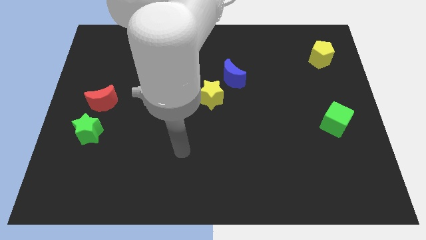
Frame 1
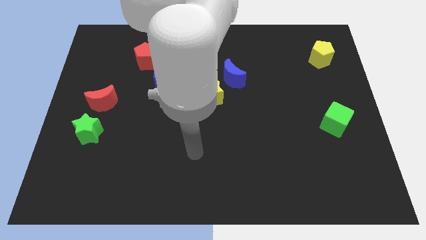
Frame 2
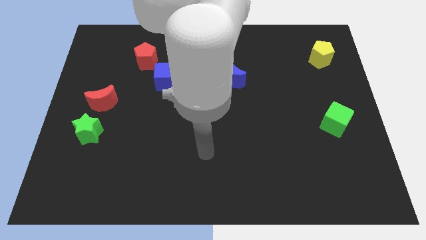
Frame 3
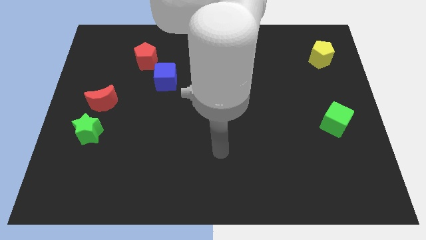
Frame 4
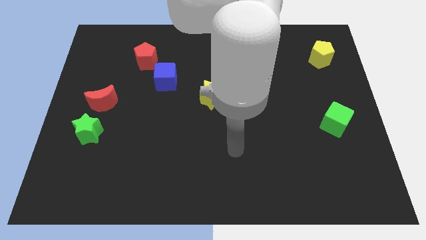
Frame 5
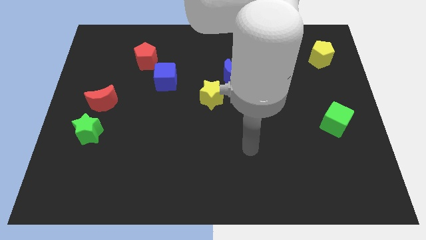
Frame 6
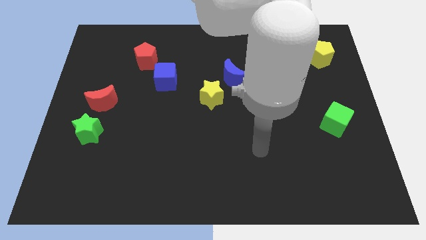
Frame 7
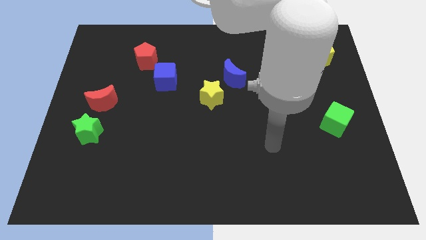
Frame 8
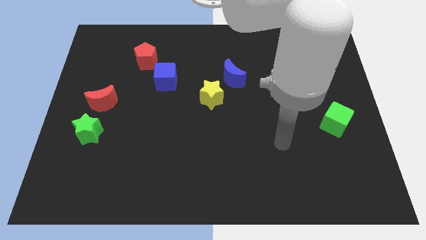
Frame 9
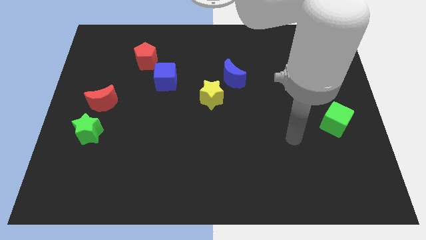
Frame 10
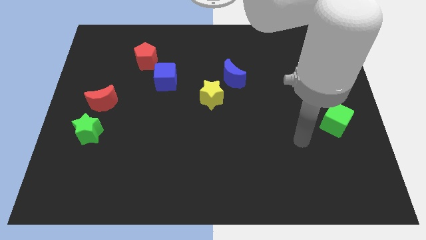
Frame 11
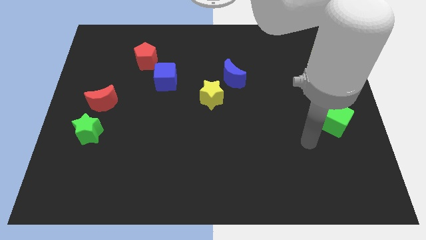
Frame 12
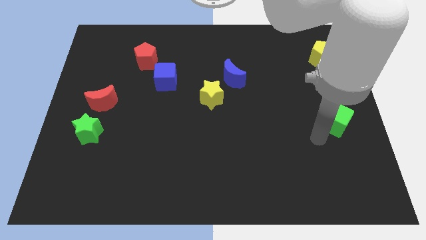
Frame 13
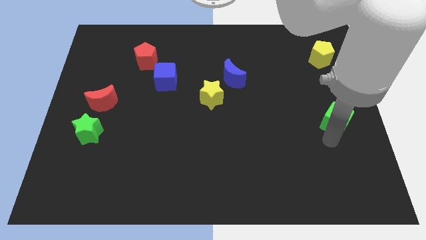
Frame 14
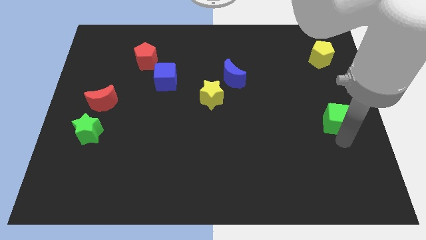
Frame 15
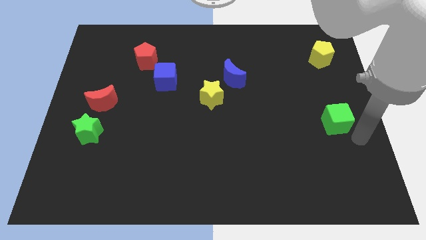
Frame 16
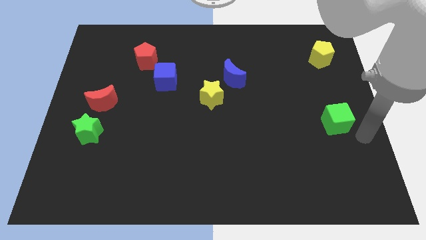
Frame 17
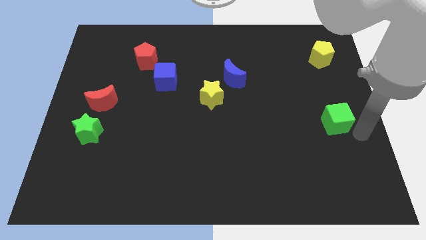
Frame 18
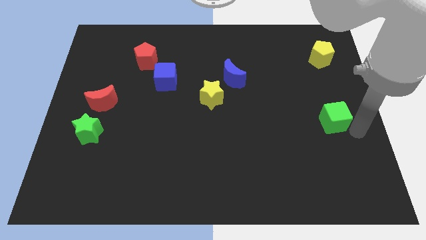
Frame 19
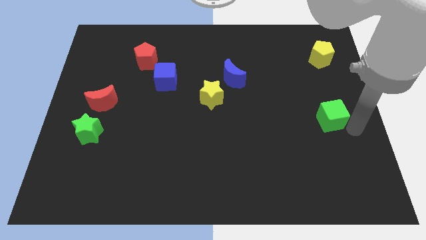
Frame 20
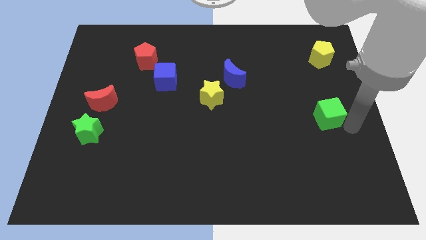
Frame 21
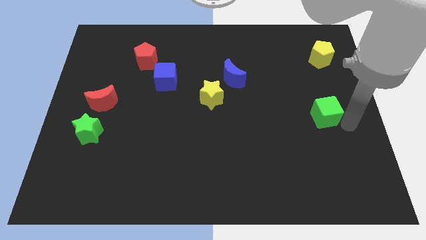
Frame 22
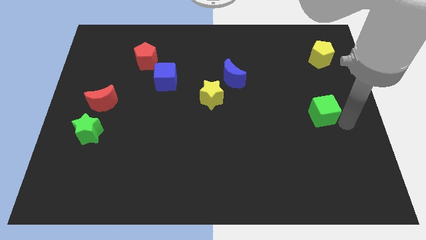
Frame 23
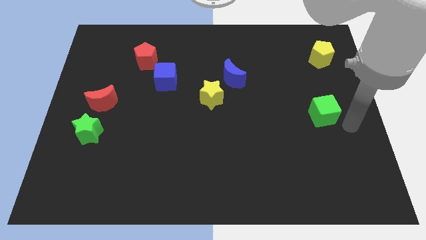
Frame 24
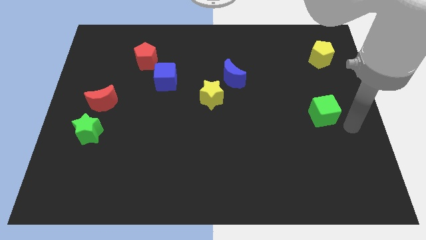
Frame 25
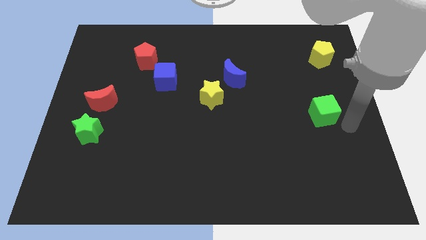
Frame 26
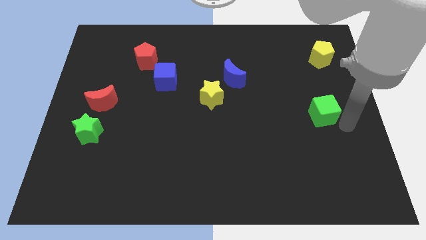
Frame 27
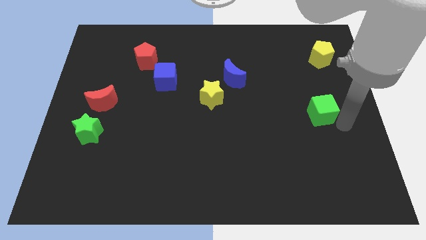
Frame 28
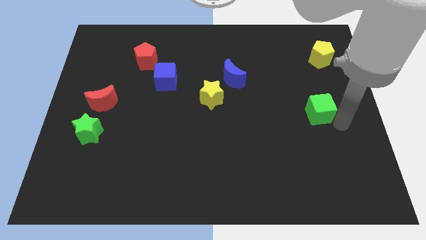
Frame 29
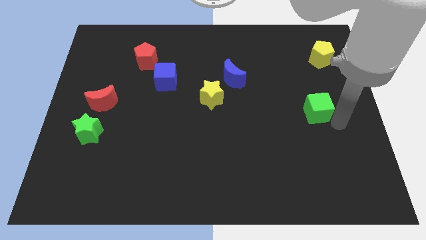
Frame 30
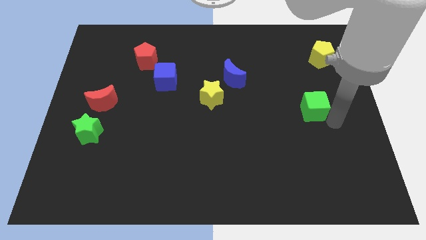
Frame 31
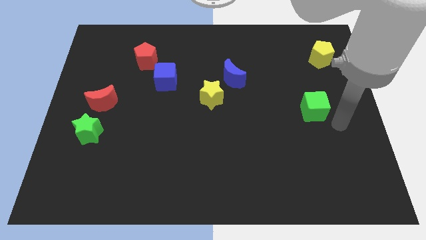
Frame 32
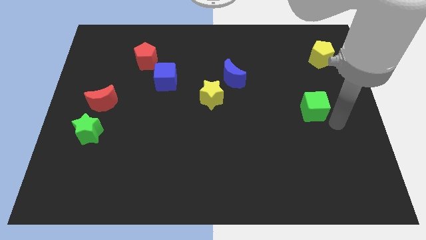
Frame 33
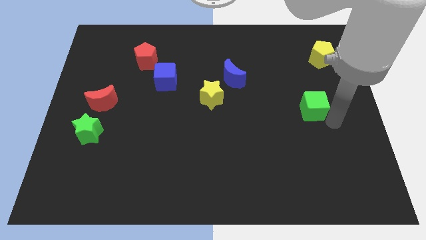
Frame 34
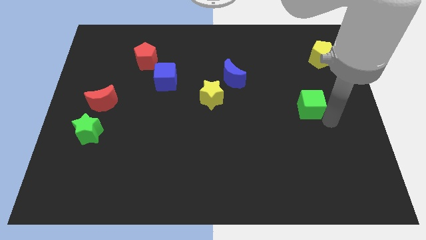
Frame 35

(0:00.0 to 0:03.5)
slightly slide the green cube up and to the left diagonally

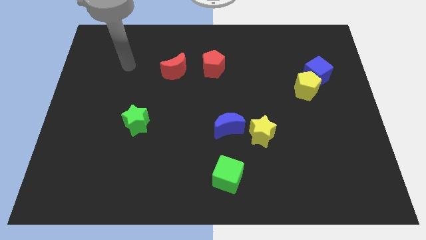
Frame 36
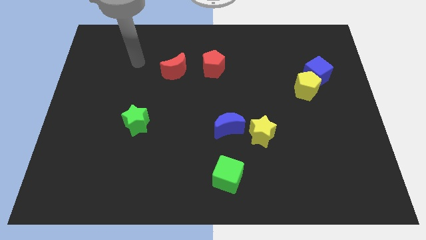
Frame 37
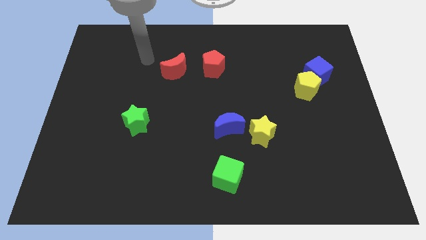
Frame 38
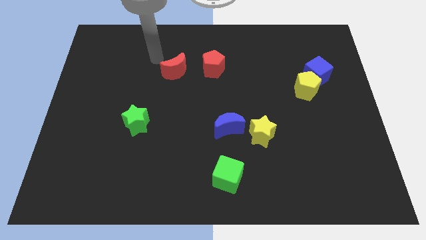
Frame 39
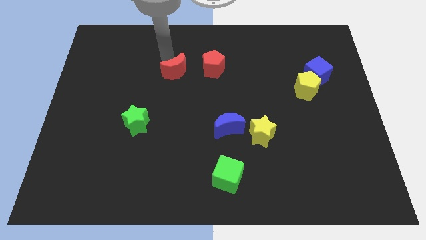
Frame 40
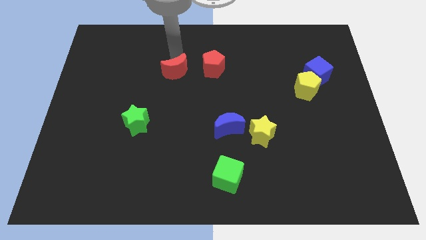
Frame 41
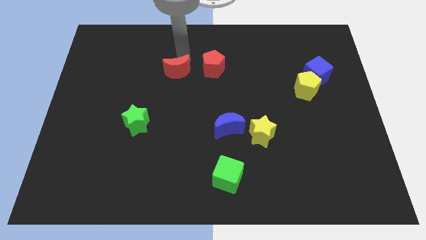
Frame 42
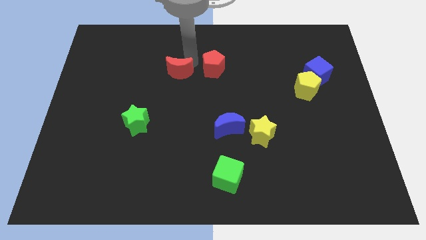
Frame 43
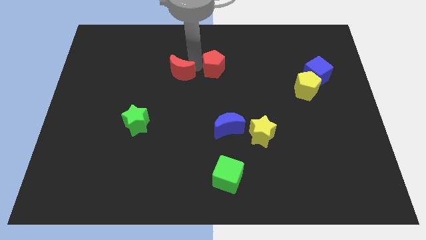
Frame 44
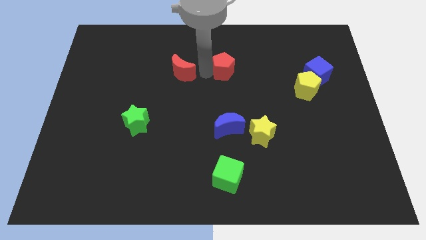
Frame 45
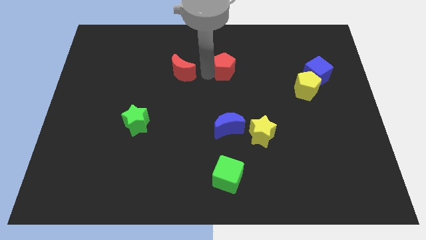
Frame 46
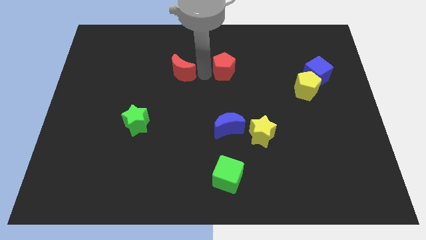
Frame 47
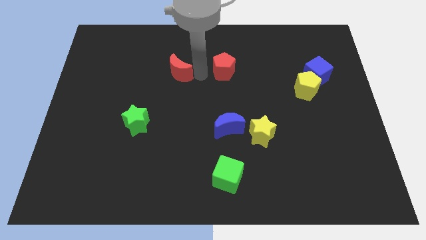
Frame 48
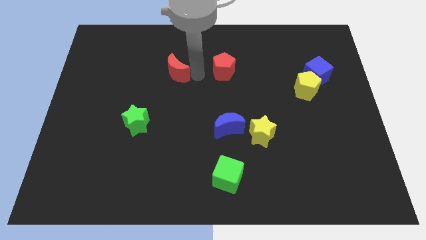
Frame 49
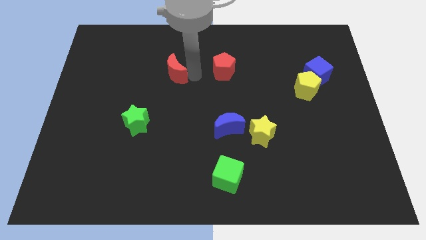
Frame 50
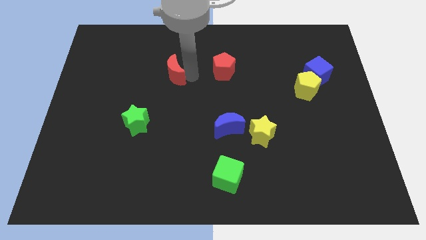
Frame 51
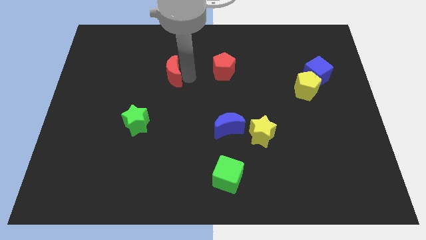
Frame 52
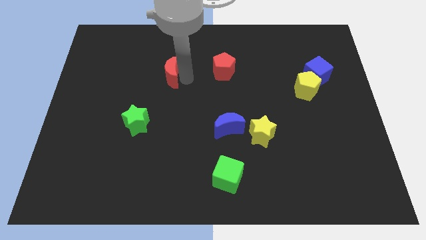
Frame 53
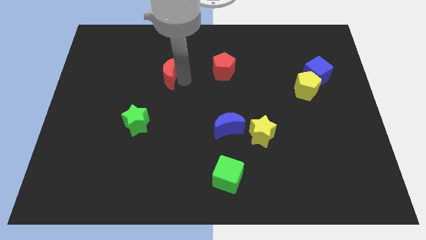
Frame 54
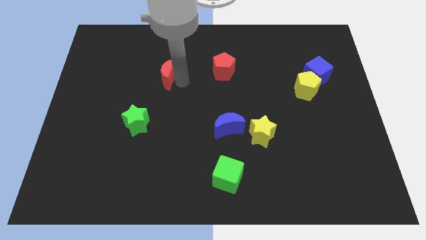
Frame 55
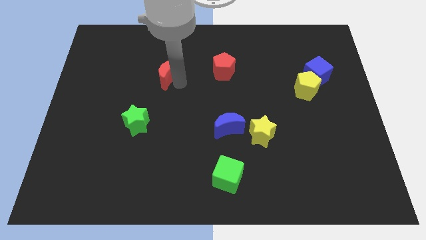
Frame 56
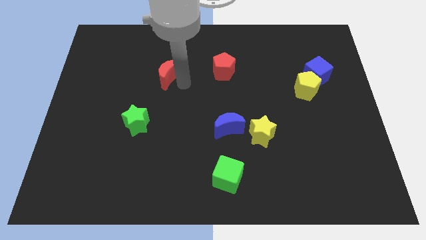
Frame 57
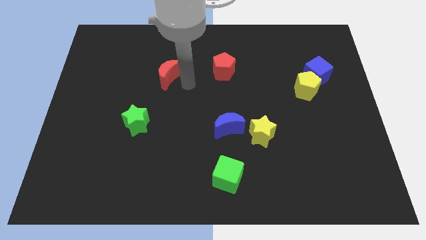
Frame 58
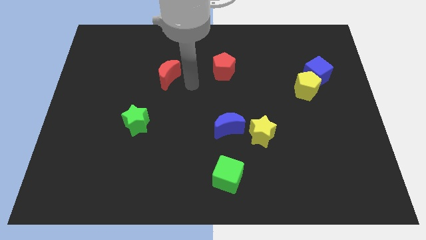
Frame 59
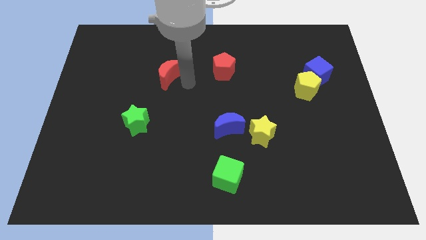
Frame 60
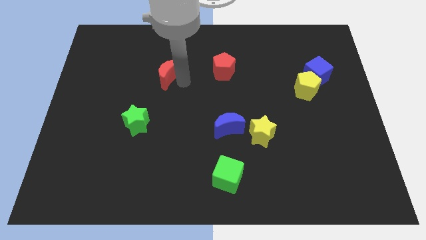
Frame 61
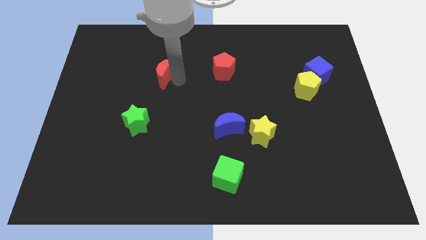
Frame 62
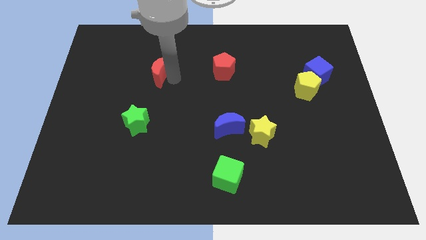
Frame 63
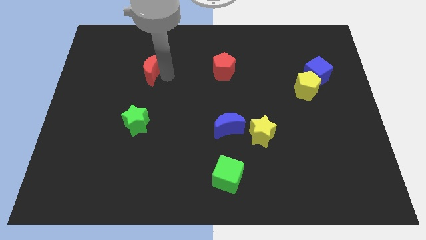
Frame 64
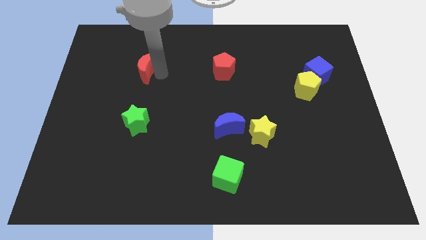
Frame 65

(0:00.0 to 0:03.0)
slightly slide the red moon to the left

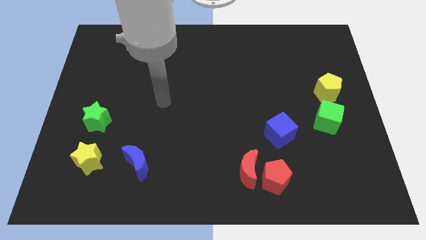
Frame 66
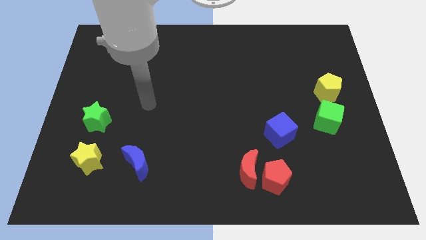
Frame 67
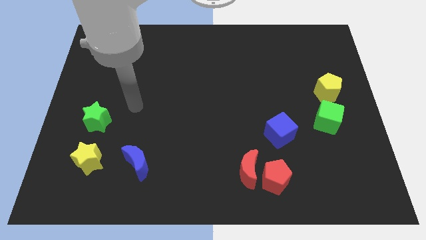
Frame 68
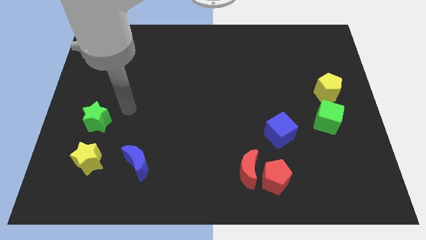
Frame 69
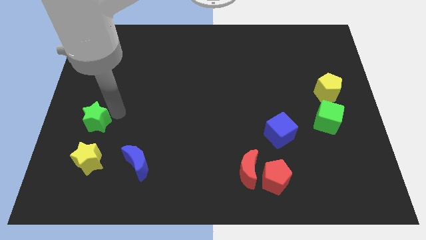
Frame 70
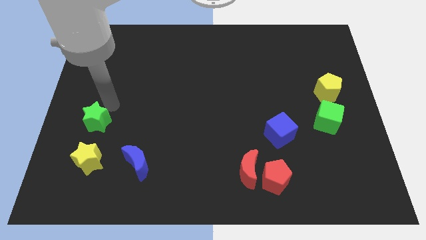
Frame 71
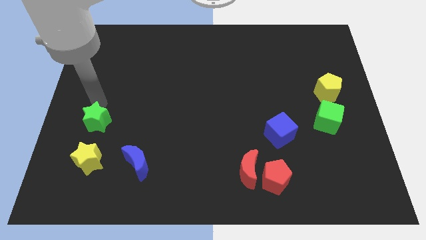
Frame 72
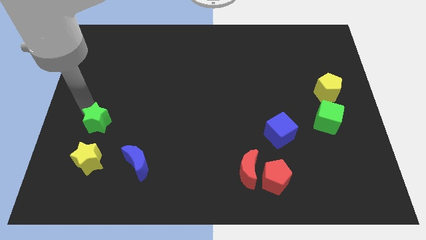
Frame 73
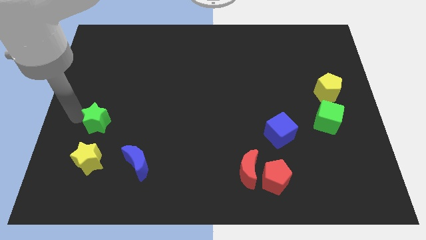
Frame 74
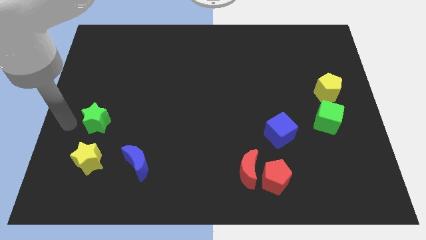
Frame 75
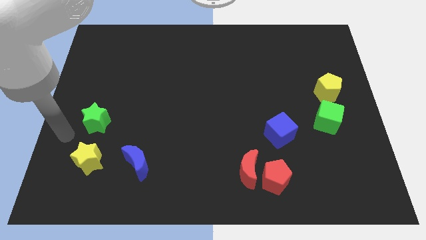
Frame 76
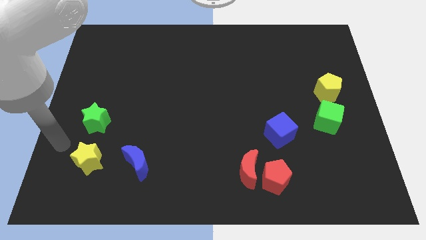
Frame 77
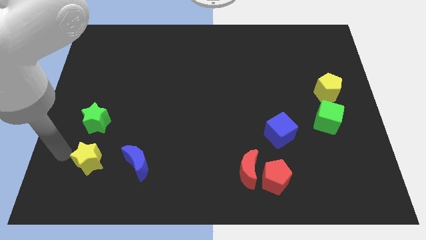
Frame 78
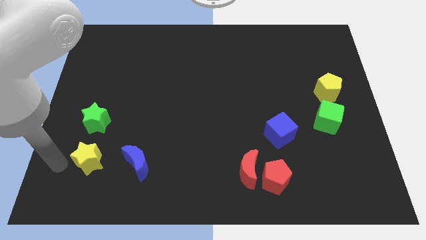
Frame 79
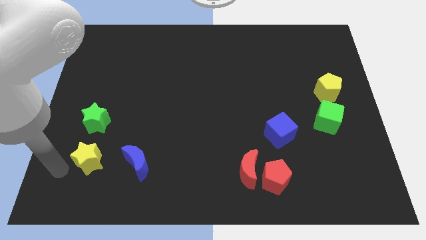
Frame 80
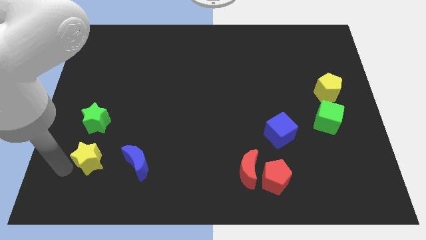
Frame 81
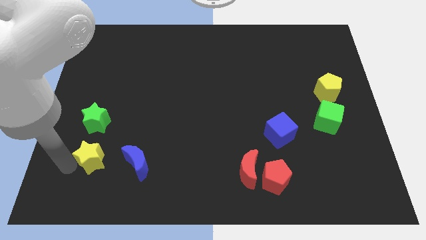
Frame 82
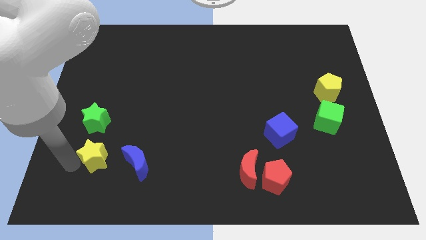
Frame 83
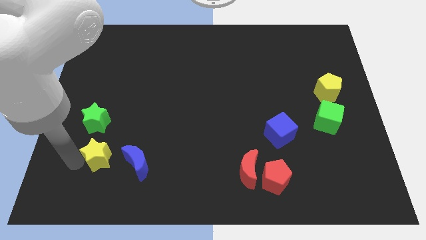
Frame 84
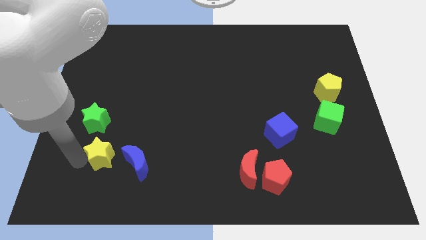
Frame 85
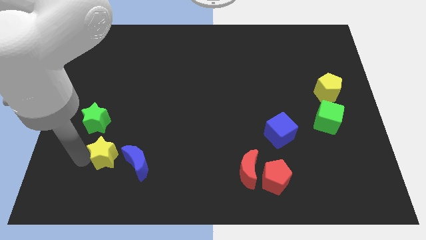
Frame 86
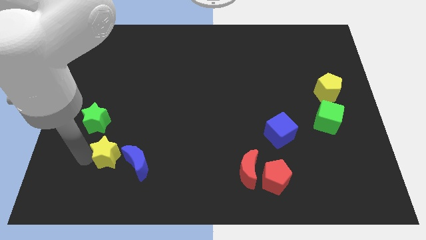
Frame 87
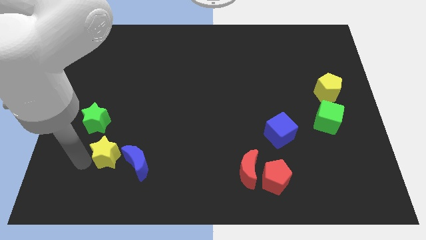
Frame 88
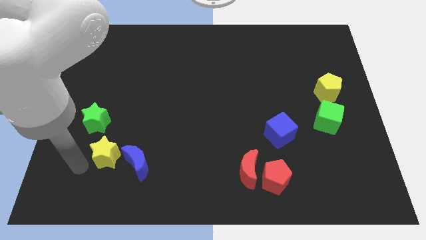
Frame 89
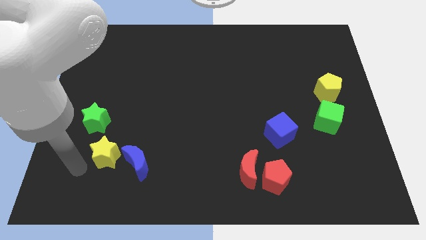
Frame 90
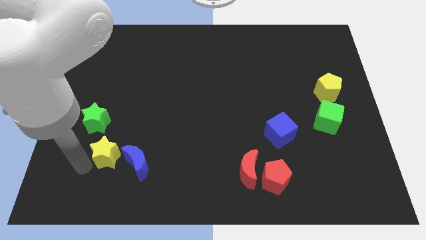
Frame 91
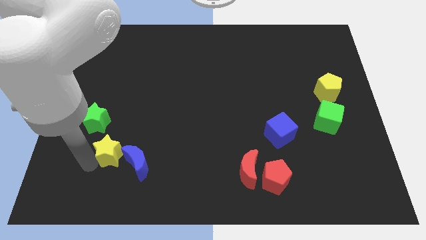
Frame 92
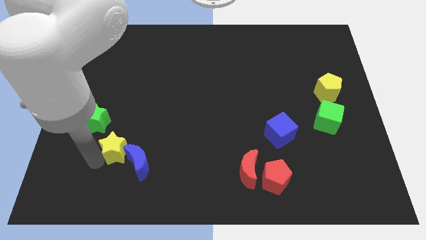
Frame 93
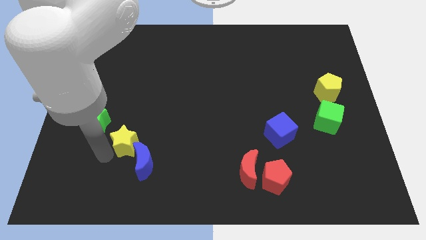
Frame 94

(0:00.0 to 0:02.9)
slightly slide the yellow star to the right
